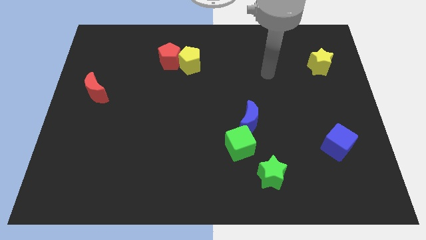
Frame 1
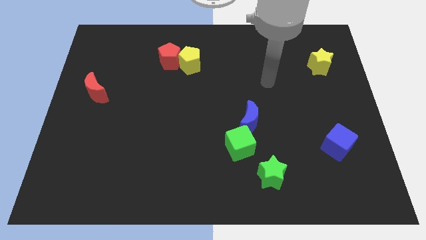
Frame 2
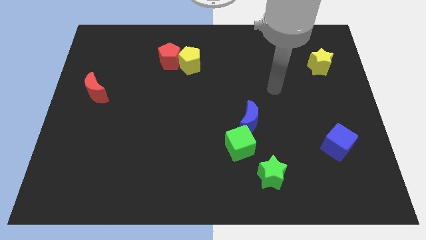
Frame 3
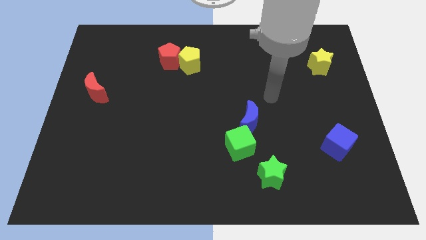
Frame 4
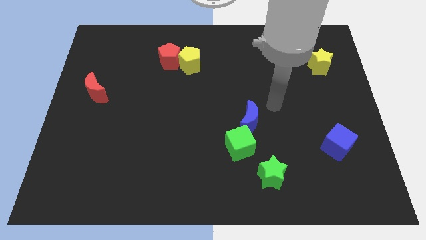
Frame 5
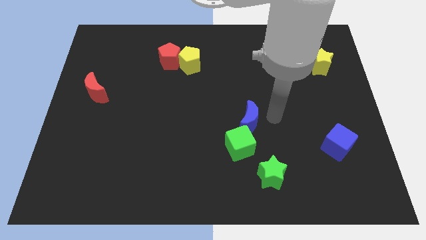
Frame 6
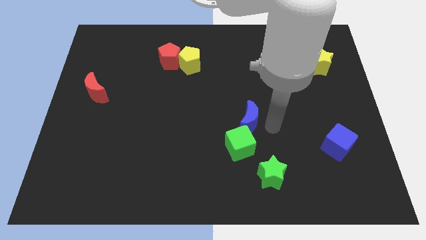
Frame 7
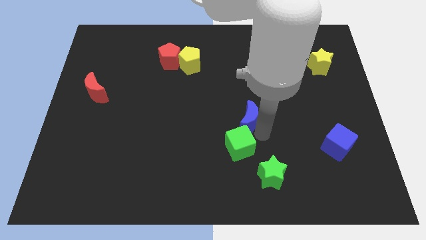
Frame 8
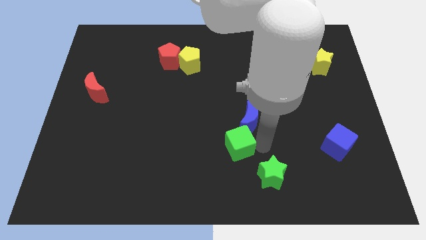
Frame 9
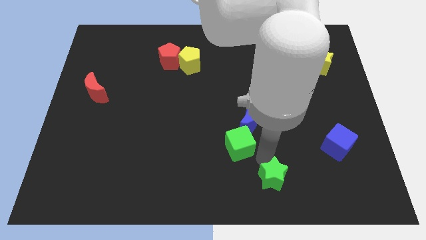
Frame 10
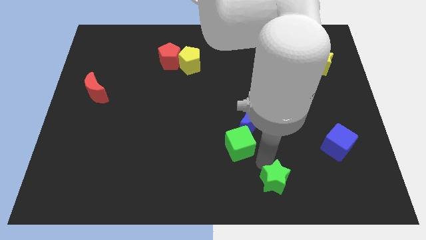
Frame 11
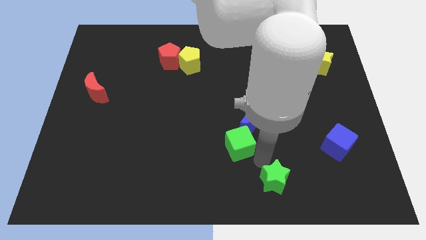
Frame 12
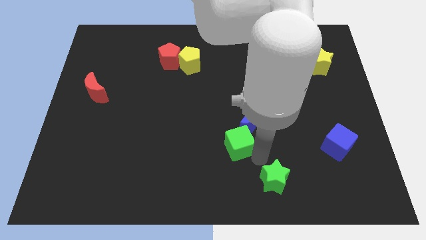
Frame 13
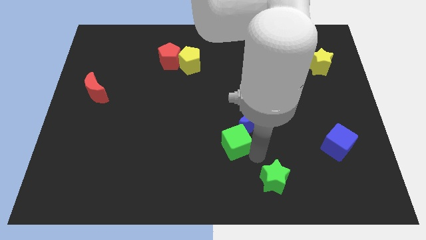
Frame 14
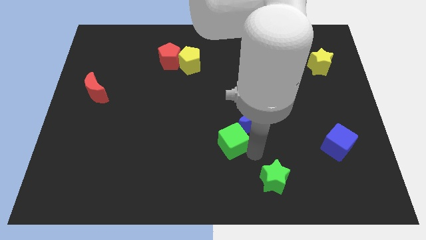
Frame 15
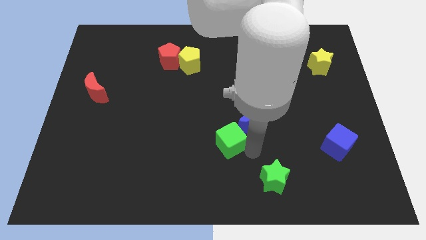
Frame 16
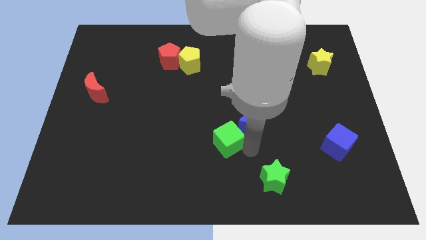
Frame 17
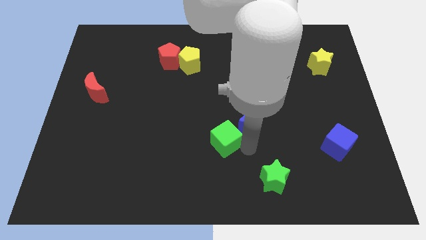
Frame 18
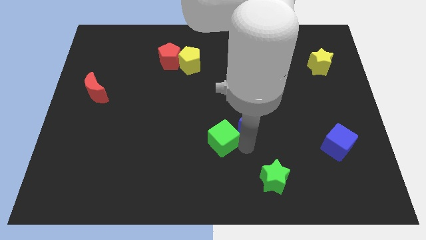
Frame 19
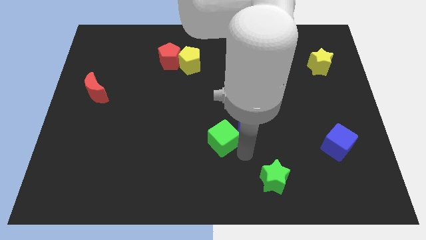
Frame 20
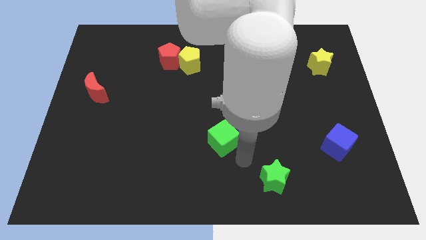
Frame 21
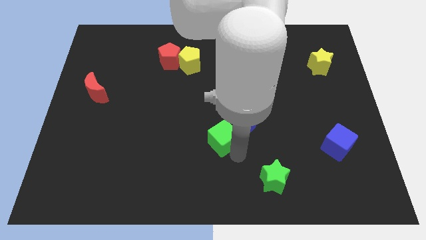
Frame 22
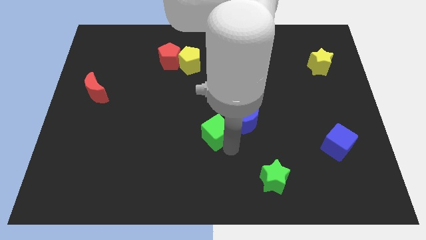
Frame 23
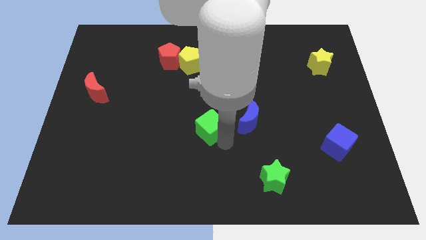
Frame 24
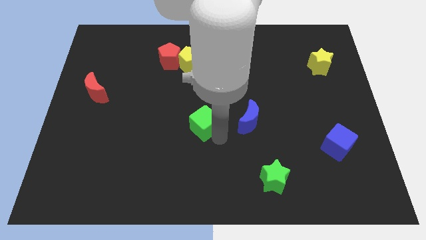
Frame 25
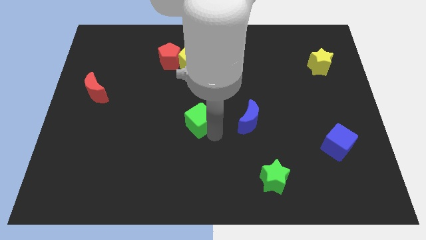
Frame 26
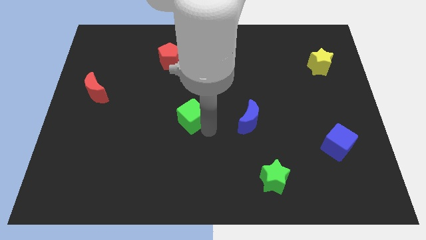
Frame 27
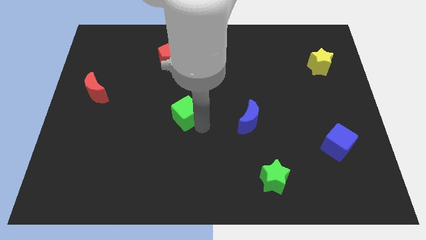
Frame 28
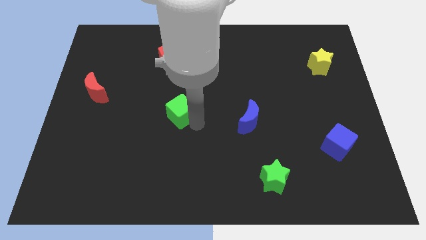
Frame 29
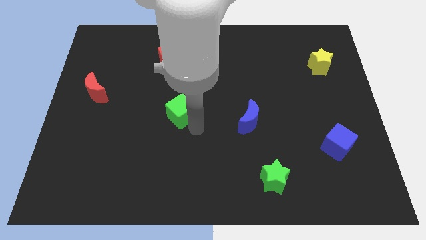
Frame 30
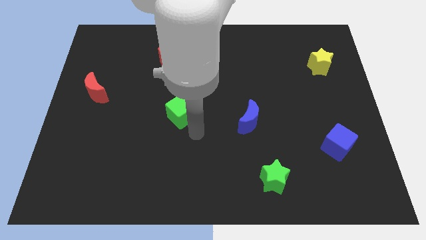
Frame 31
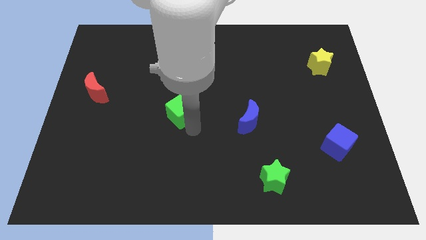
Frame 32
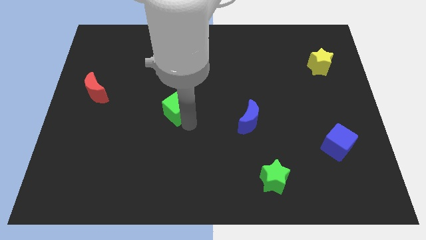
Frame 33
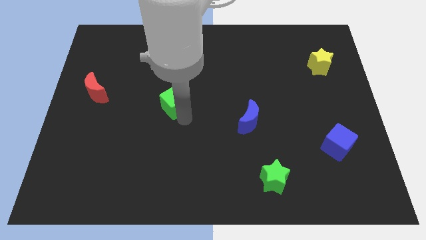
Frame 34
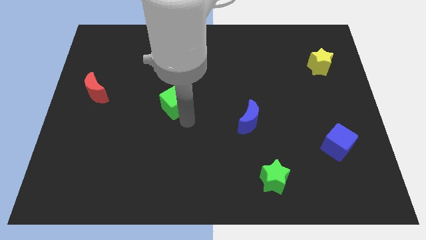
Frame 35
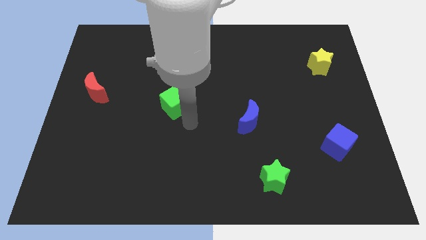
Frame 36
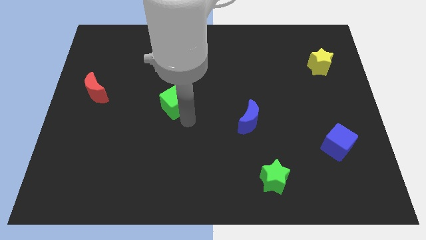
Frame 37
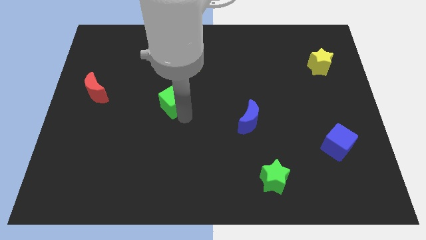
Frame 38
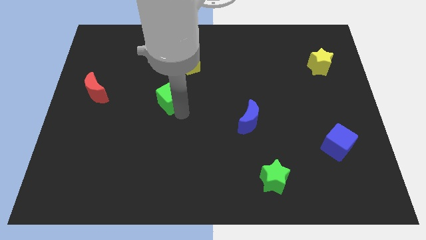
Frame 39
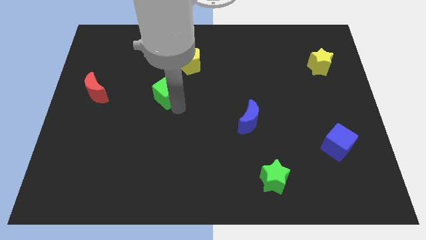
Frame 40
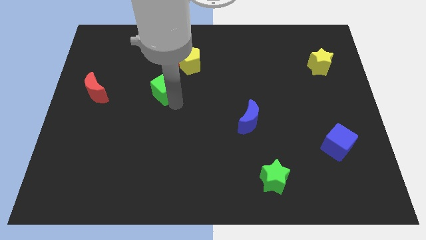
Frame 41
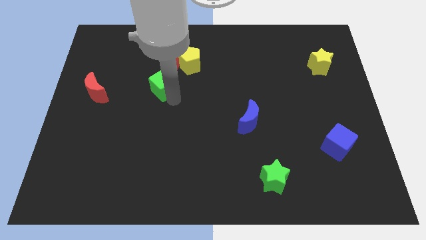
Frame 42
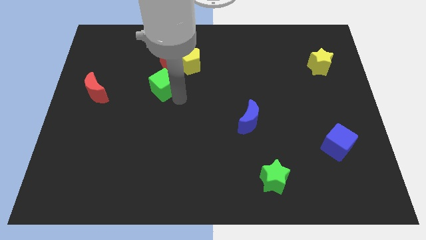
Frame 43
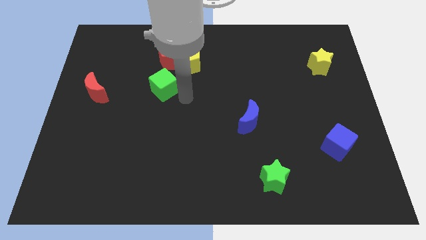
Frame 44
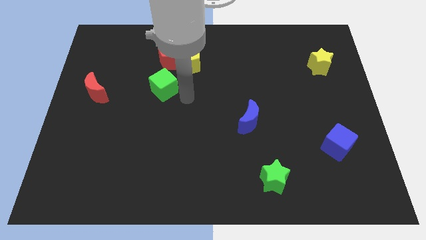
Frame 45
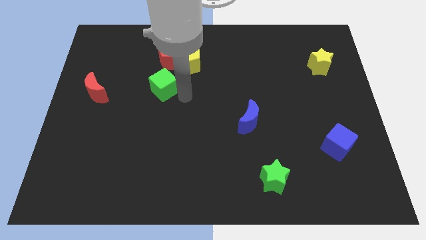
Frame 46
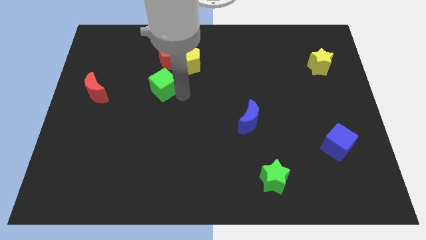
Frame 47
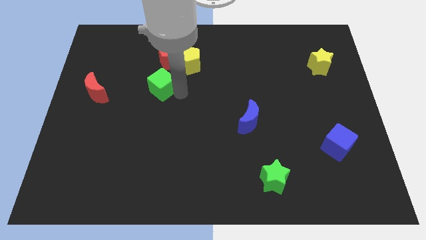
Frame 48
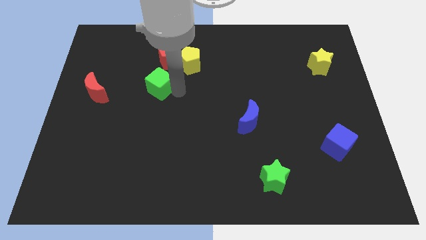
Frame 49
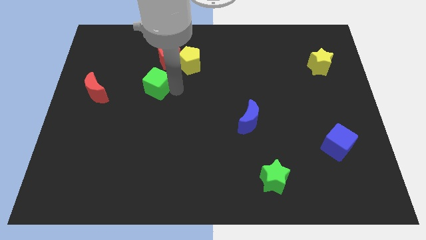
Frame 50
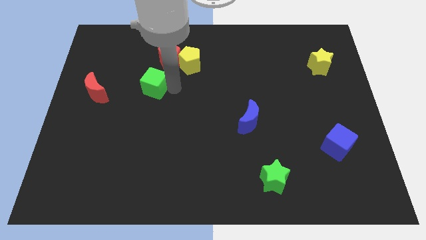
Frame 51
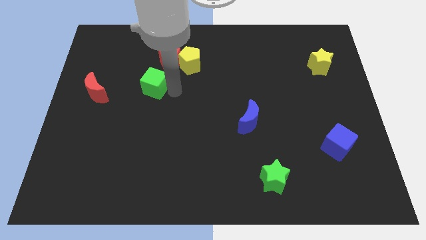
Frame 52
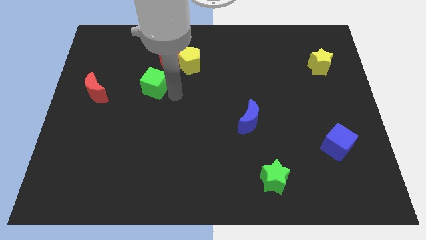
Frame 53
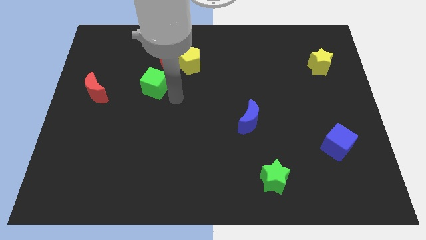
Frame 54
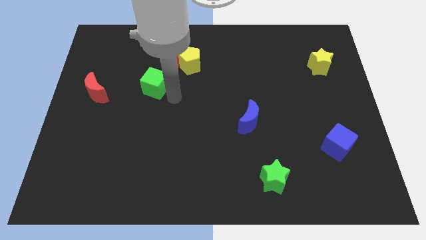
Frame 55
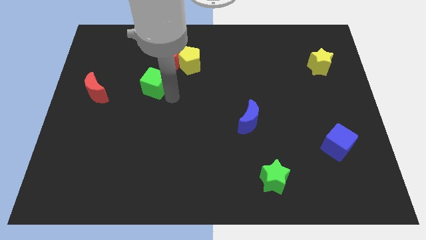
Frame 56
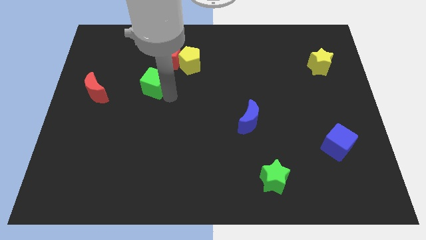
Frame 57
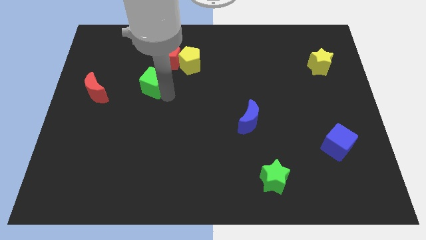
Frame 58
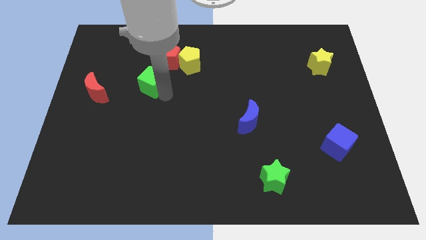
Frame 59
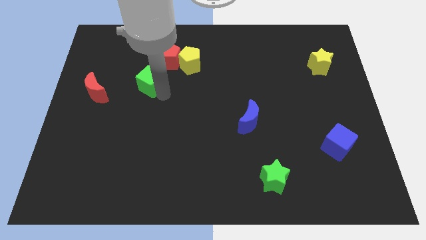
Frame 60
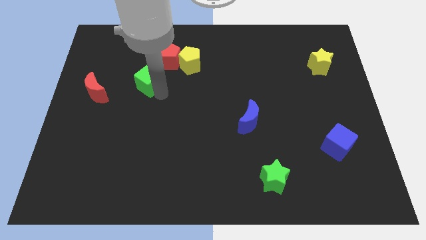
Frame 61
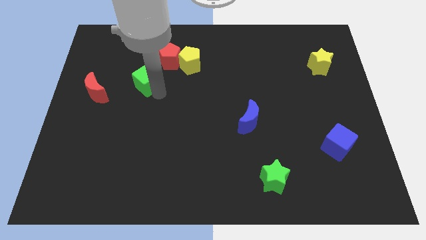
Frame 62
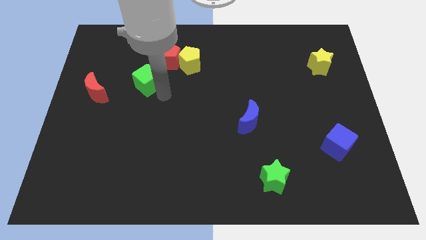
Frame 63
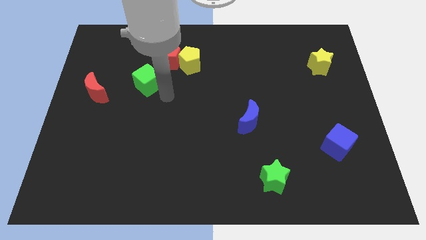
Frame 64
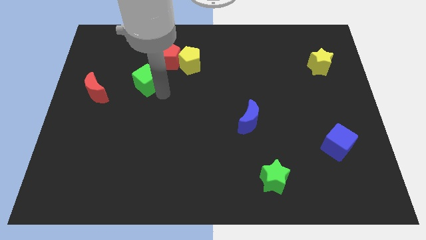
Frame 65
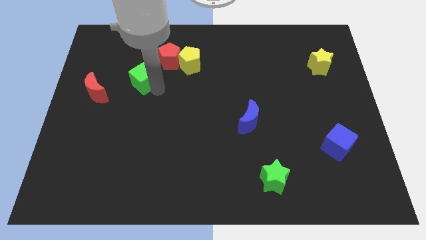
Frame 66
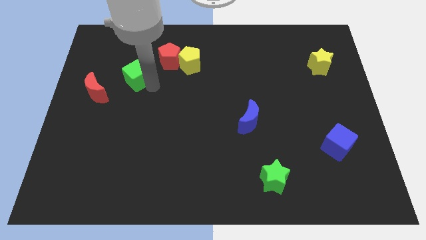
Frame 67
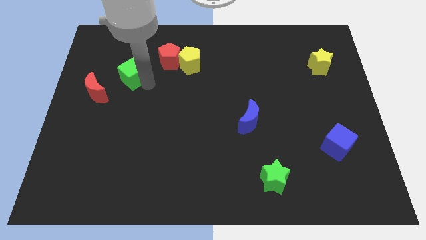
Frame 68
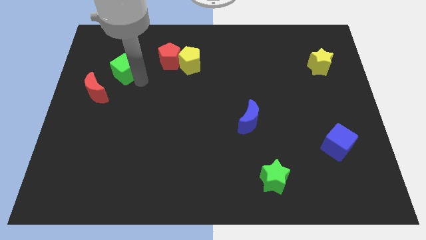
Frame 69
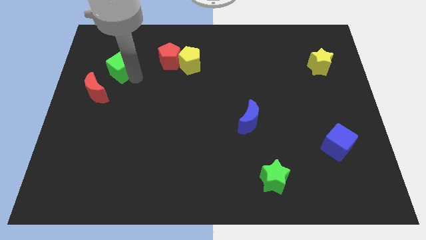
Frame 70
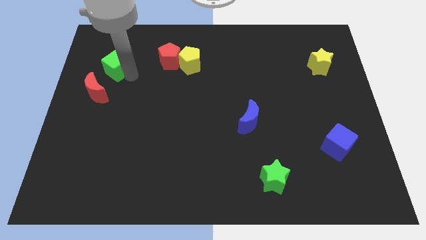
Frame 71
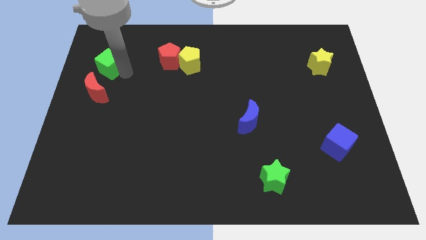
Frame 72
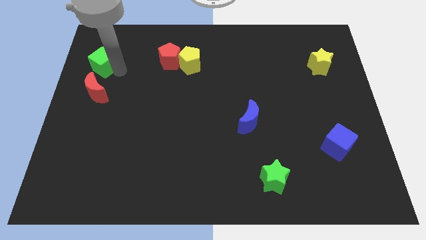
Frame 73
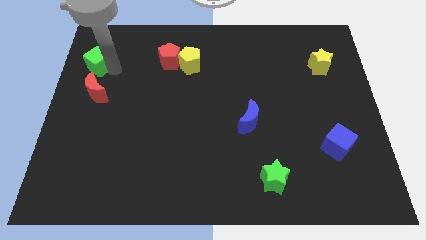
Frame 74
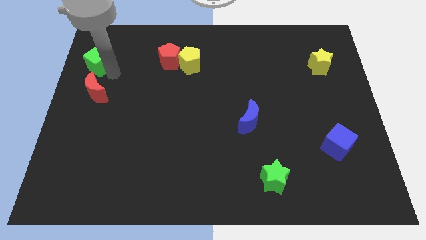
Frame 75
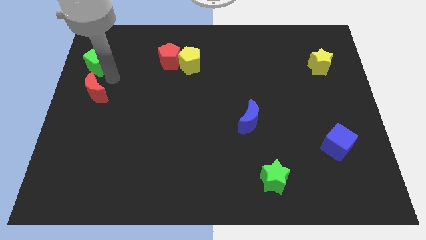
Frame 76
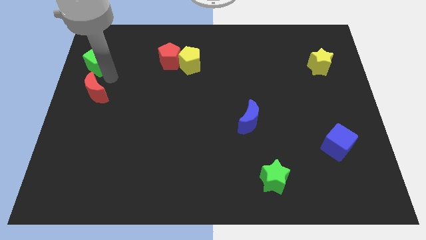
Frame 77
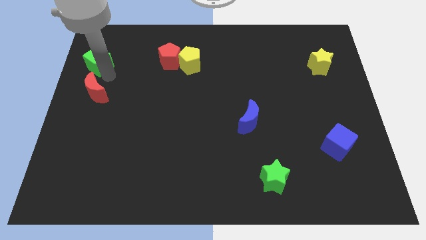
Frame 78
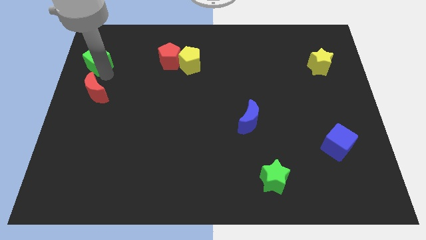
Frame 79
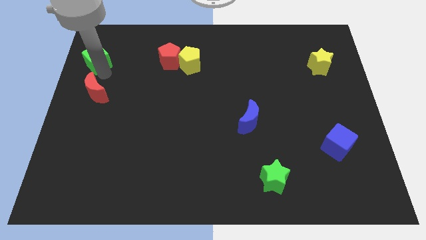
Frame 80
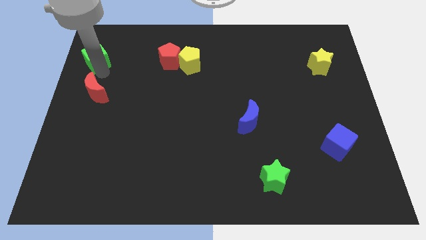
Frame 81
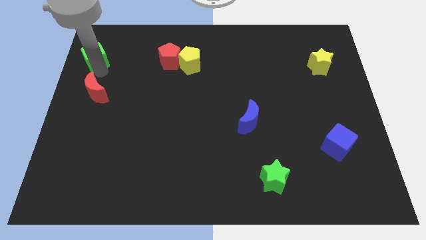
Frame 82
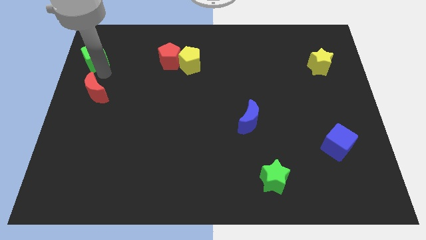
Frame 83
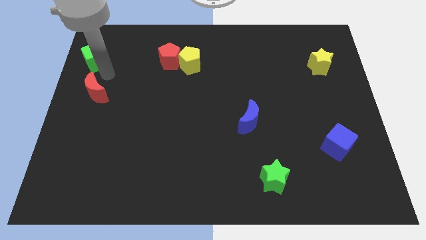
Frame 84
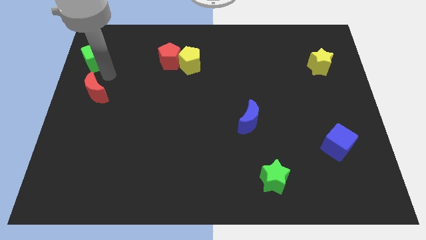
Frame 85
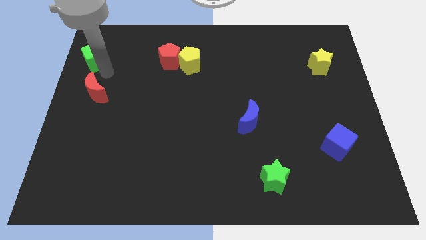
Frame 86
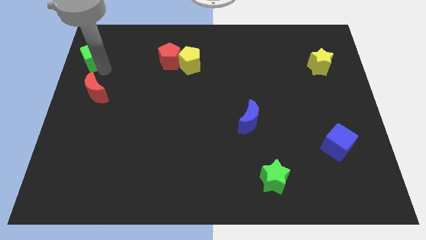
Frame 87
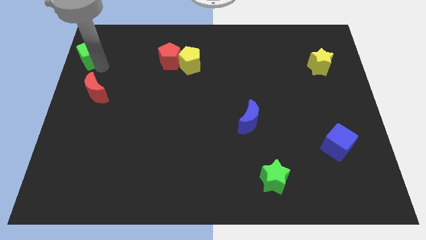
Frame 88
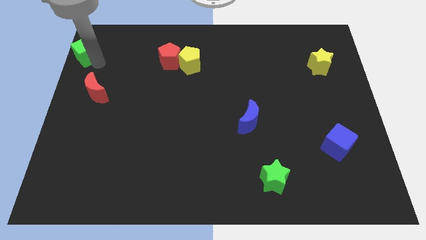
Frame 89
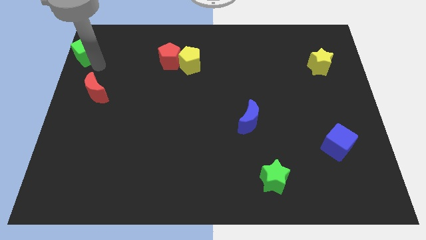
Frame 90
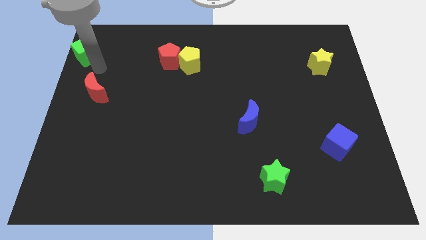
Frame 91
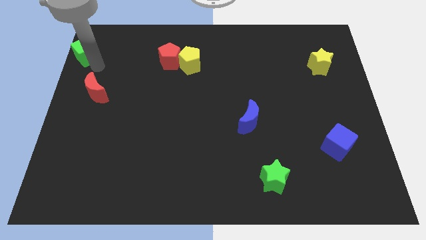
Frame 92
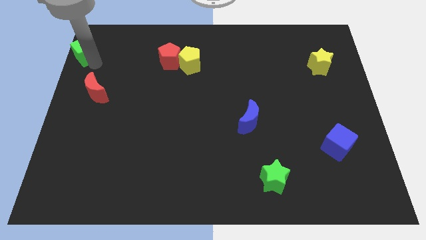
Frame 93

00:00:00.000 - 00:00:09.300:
slide the green cube to the top left of the board
